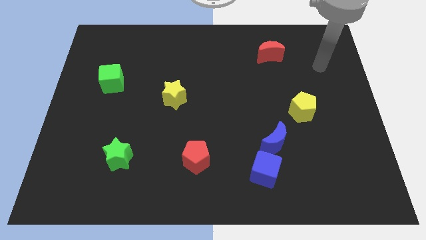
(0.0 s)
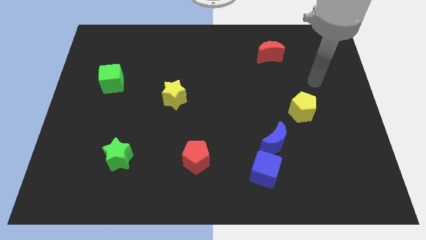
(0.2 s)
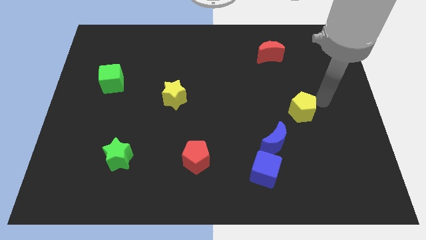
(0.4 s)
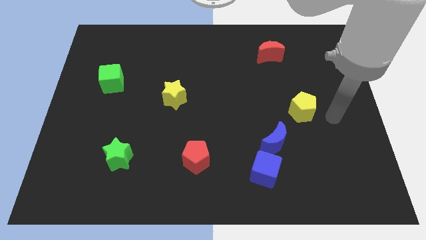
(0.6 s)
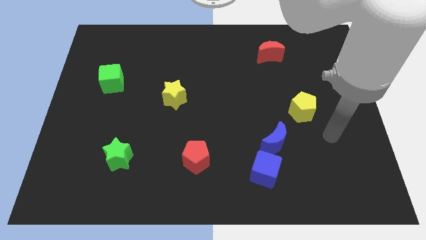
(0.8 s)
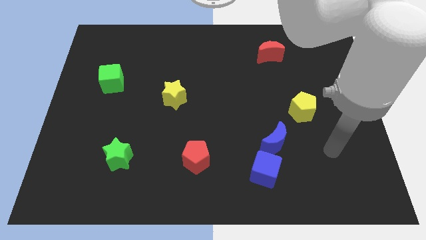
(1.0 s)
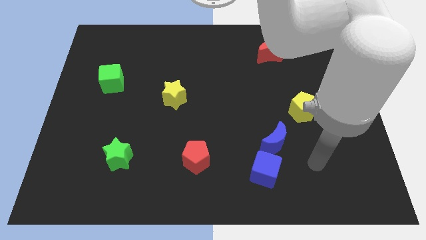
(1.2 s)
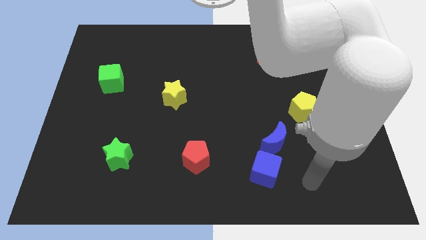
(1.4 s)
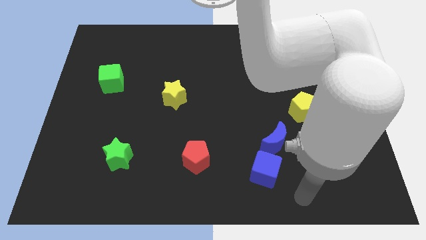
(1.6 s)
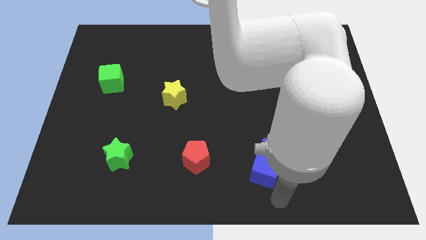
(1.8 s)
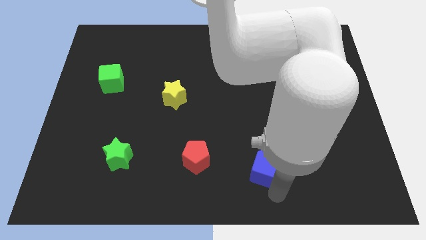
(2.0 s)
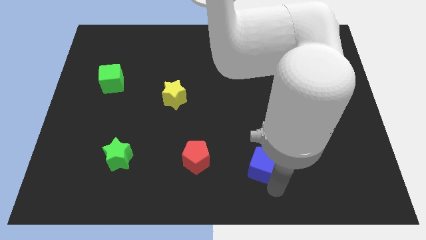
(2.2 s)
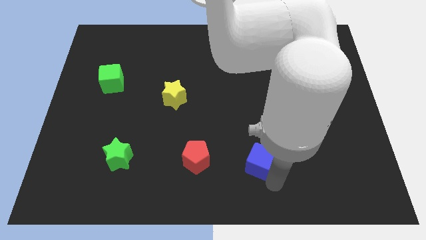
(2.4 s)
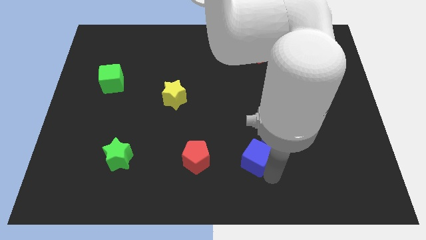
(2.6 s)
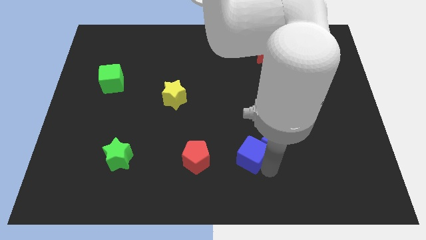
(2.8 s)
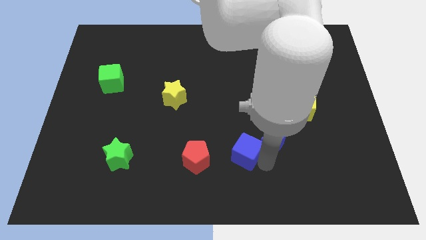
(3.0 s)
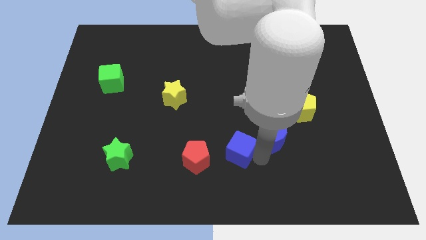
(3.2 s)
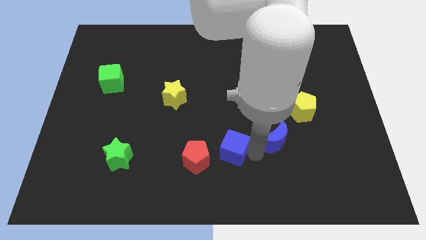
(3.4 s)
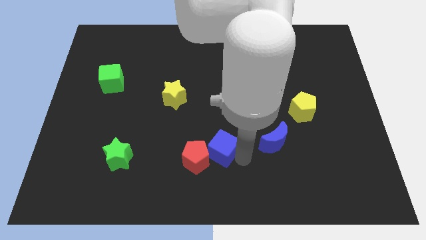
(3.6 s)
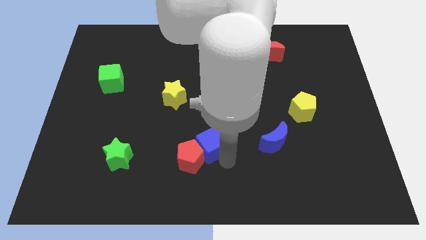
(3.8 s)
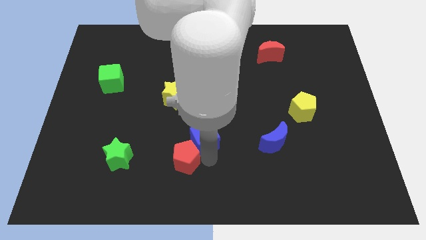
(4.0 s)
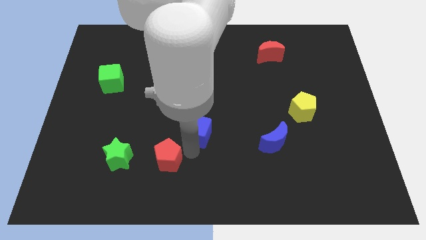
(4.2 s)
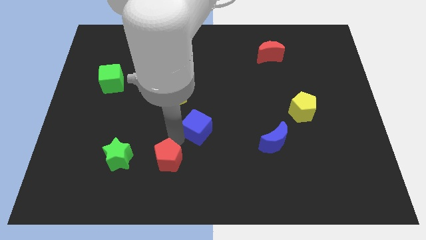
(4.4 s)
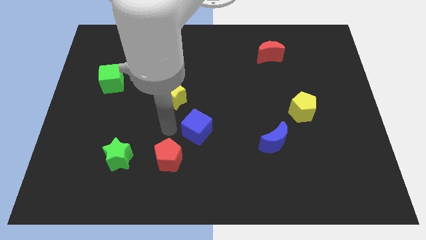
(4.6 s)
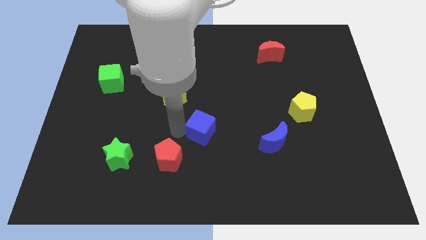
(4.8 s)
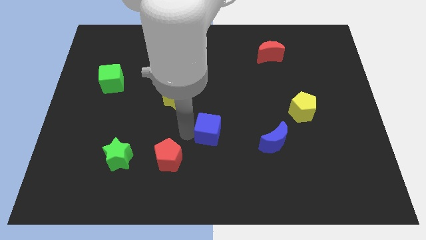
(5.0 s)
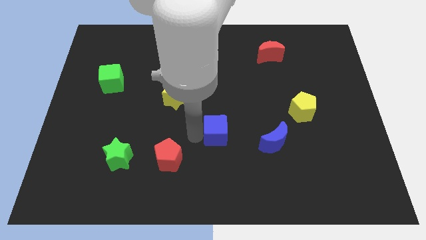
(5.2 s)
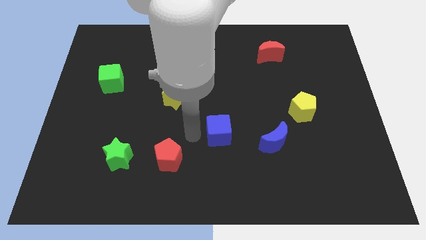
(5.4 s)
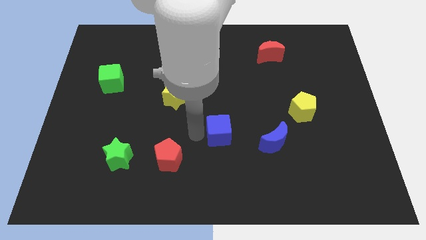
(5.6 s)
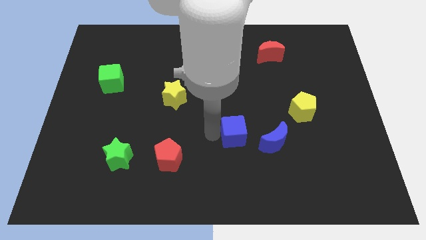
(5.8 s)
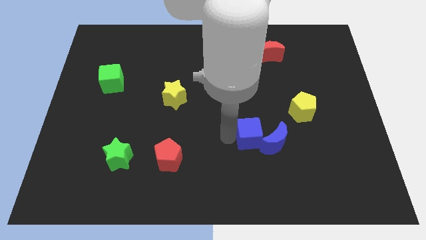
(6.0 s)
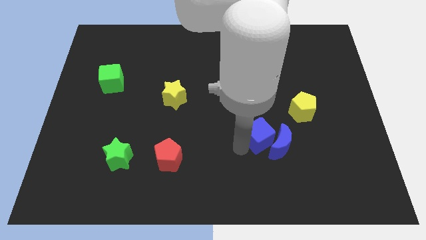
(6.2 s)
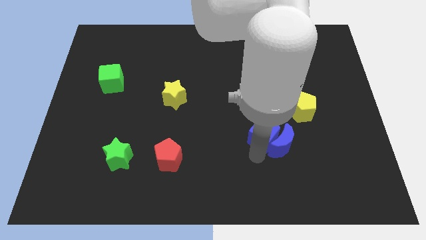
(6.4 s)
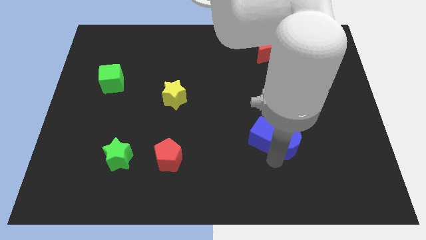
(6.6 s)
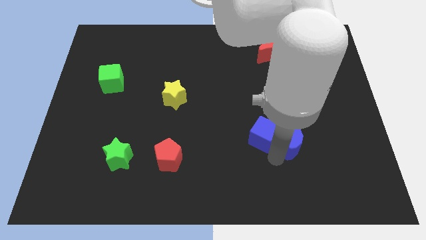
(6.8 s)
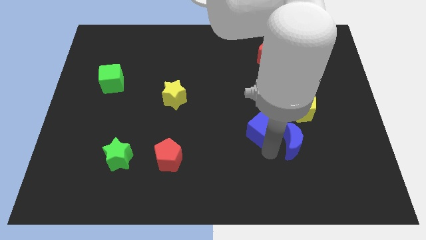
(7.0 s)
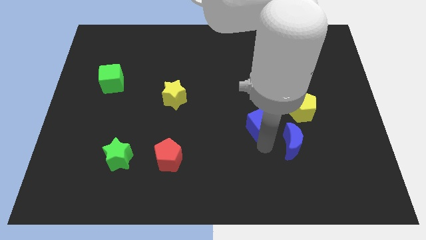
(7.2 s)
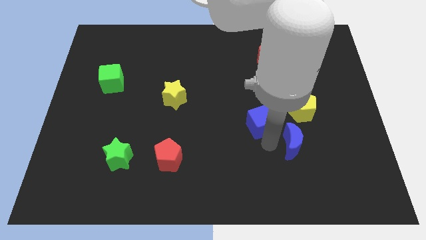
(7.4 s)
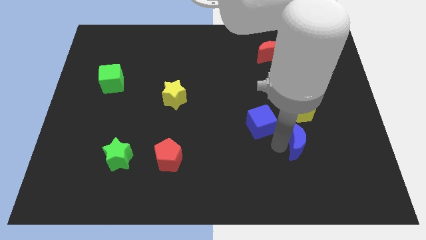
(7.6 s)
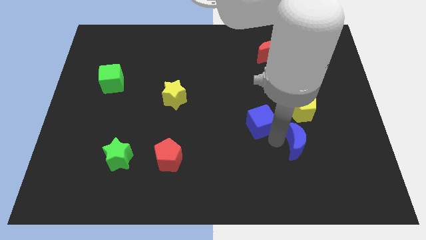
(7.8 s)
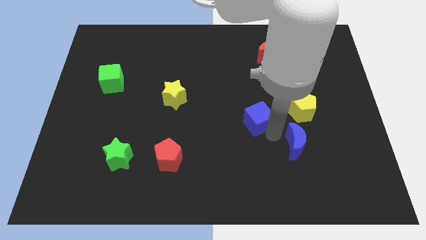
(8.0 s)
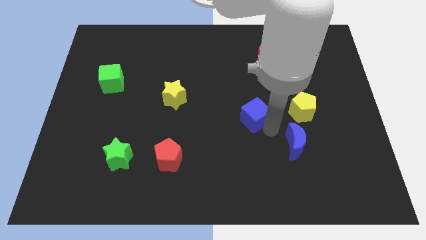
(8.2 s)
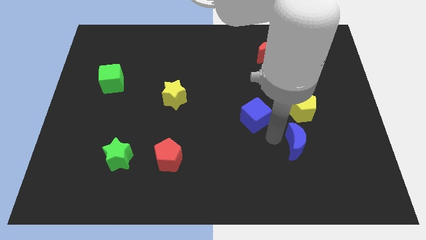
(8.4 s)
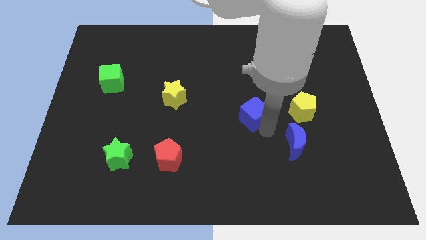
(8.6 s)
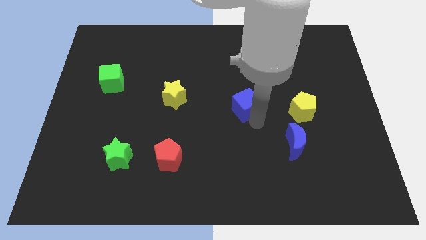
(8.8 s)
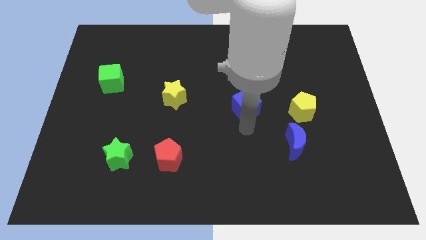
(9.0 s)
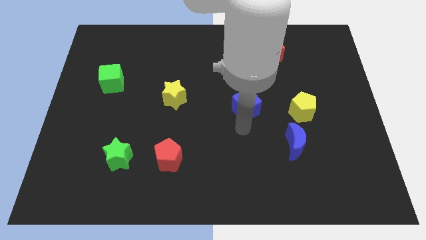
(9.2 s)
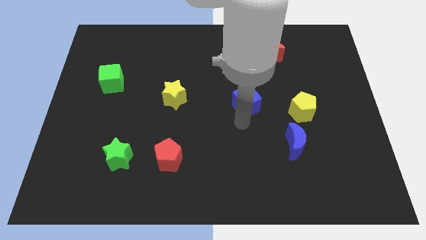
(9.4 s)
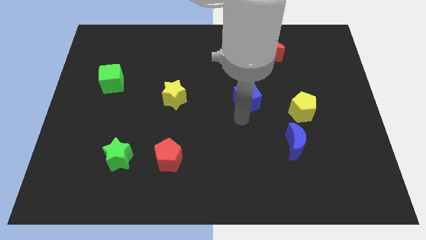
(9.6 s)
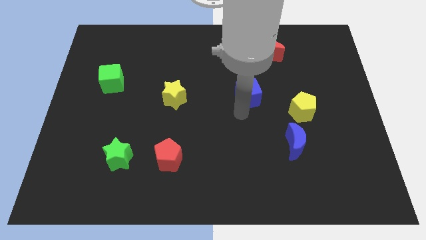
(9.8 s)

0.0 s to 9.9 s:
push the blue cube up

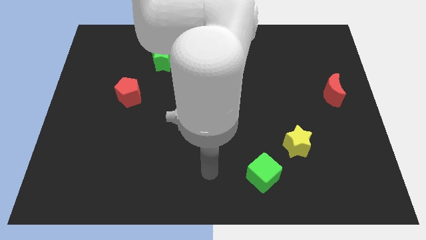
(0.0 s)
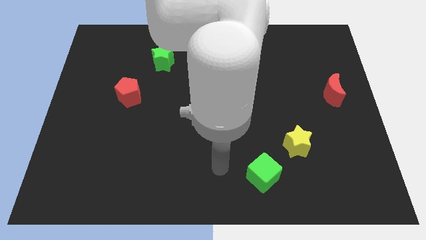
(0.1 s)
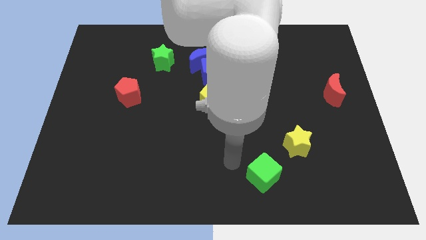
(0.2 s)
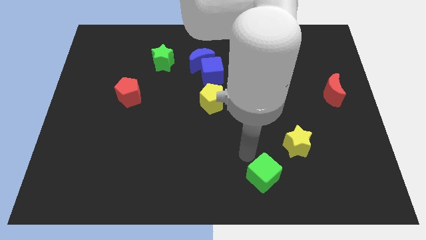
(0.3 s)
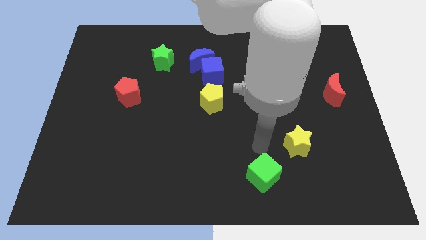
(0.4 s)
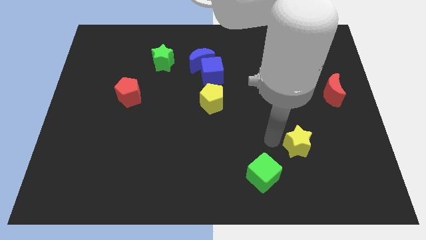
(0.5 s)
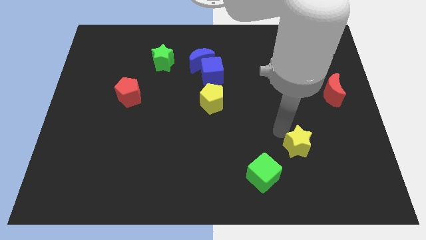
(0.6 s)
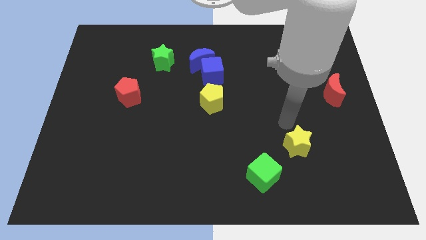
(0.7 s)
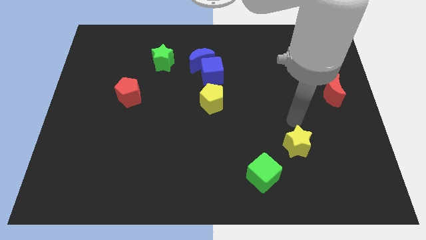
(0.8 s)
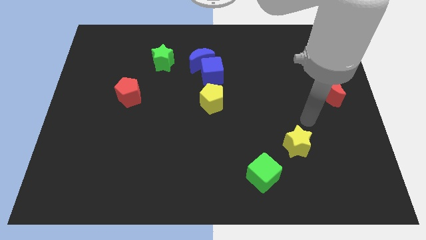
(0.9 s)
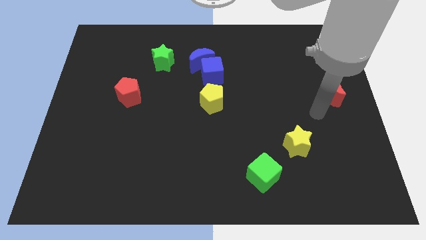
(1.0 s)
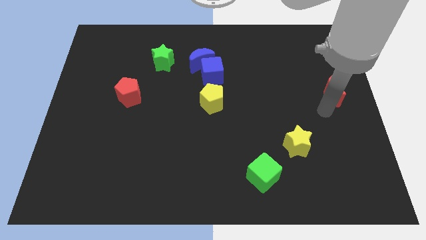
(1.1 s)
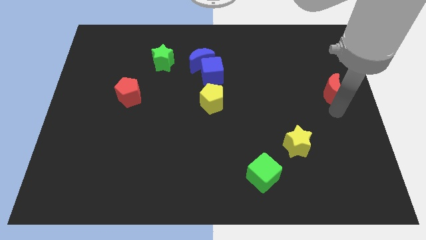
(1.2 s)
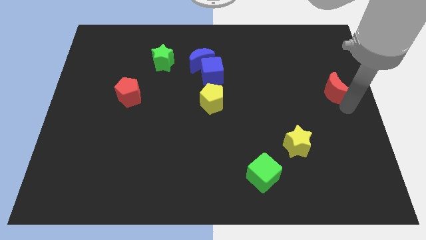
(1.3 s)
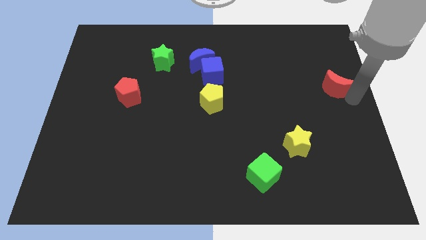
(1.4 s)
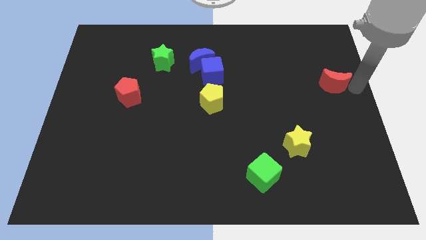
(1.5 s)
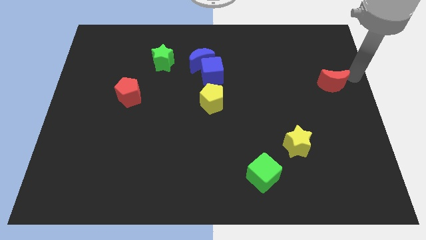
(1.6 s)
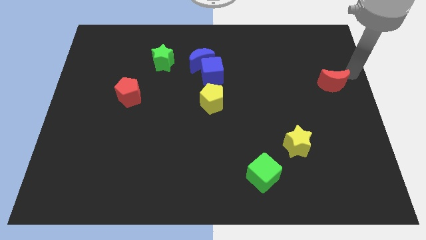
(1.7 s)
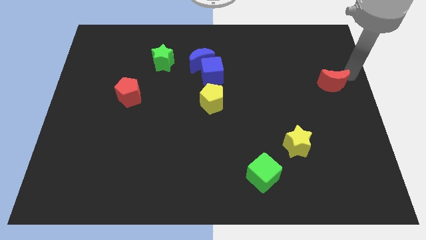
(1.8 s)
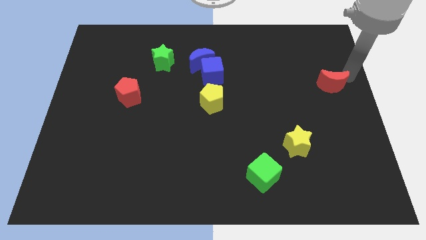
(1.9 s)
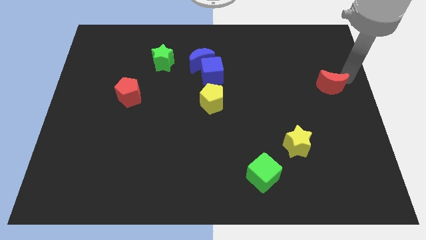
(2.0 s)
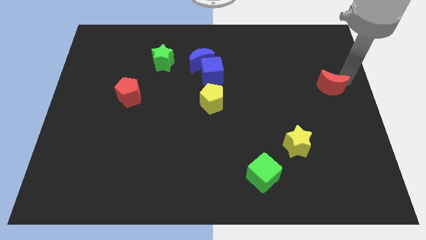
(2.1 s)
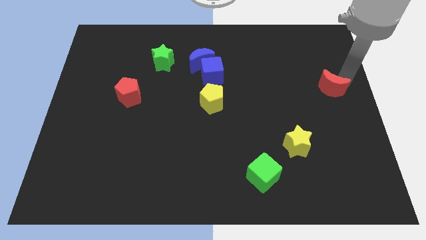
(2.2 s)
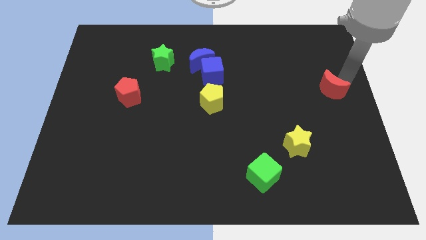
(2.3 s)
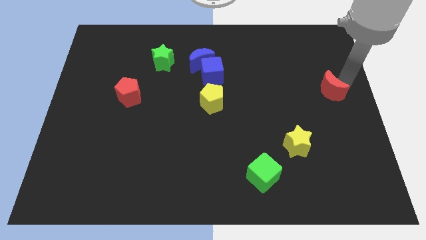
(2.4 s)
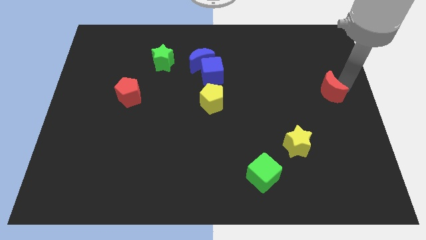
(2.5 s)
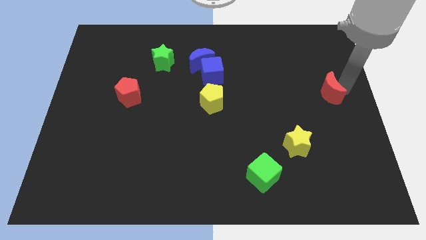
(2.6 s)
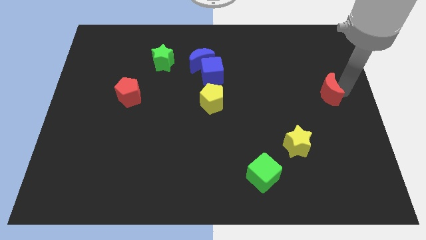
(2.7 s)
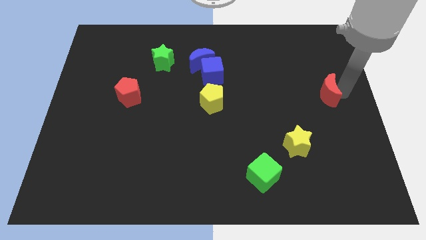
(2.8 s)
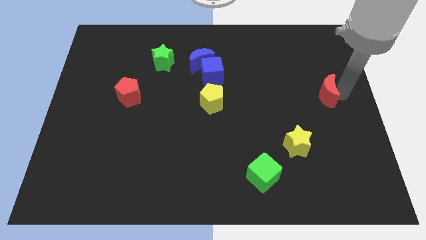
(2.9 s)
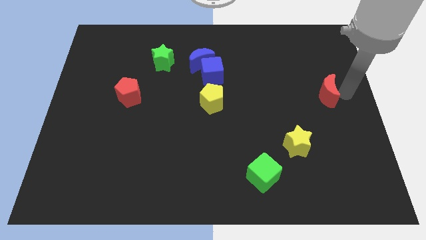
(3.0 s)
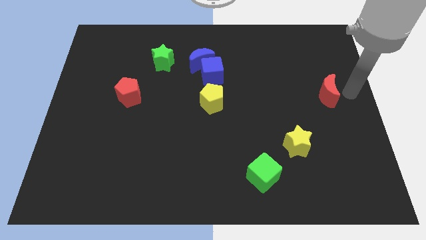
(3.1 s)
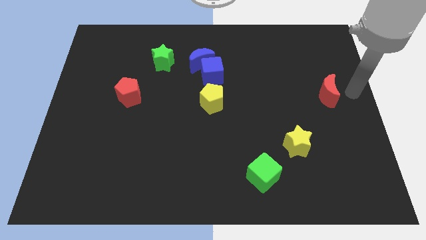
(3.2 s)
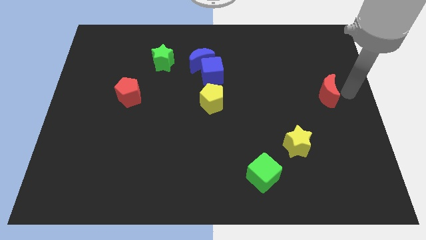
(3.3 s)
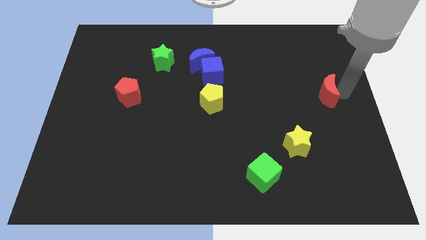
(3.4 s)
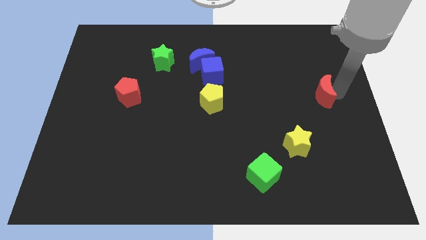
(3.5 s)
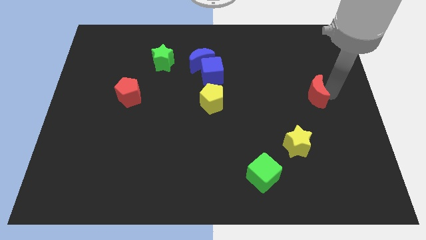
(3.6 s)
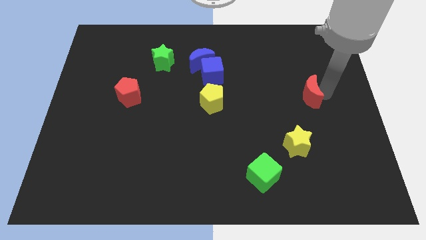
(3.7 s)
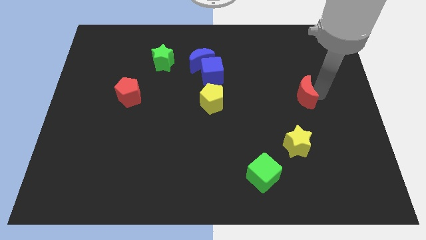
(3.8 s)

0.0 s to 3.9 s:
slide the red moon to the left a little bit
